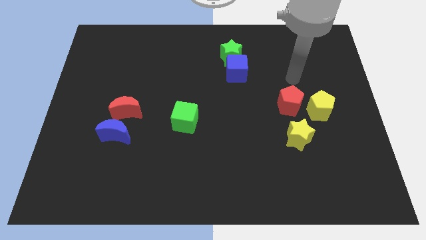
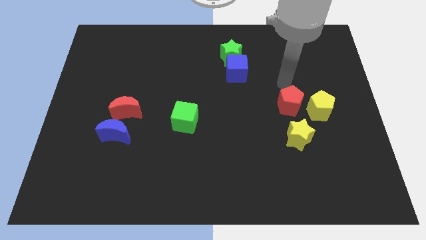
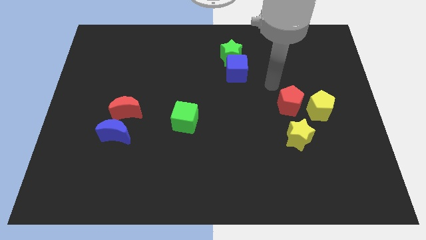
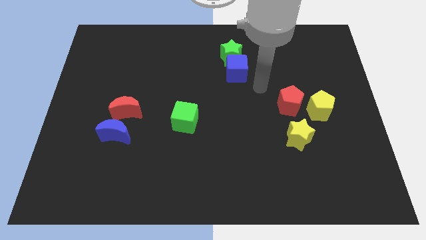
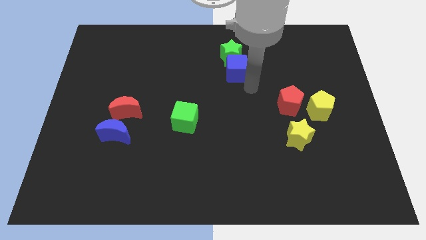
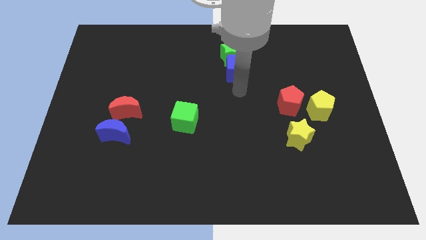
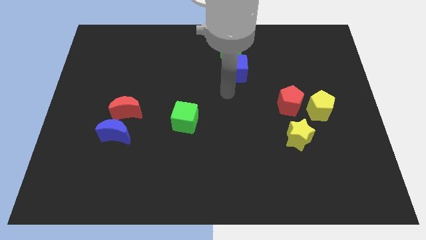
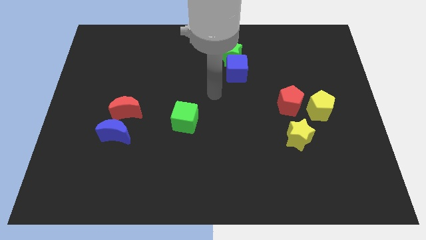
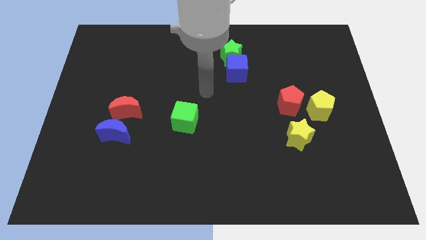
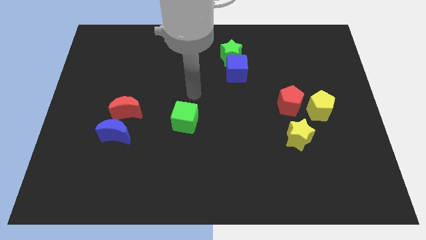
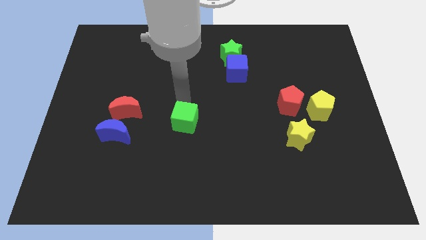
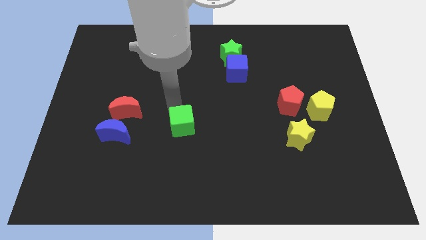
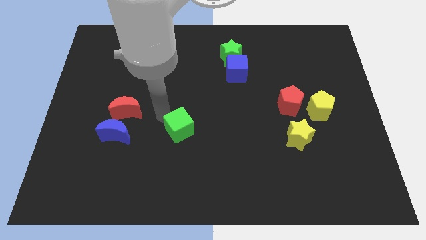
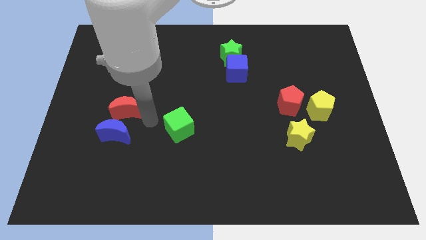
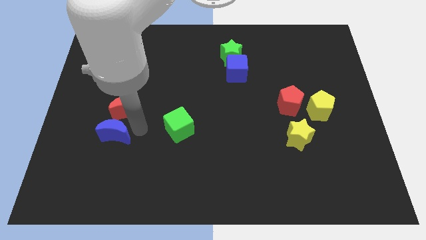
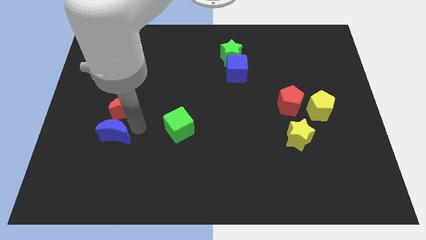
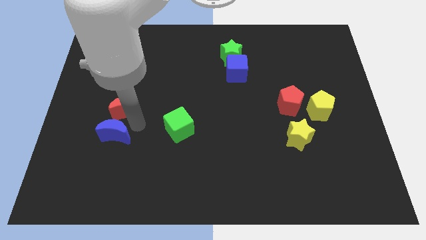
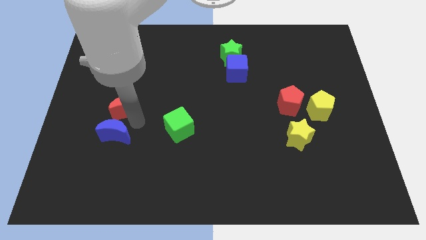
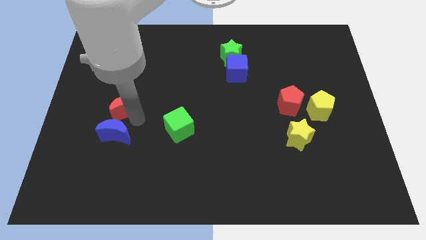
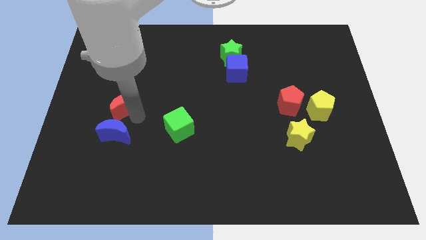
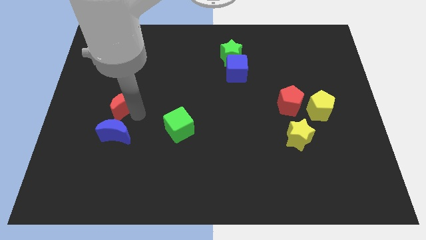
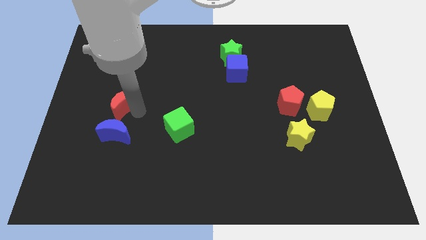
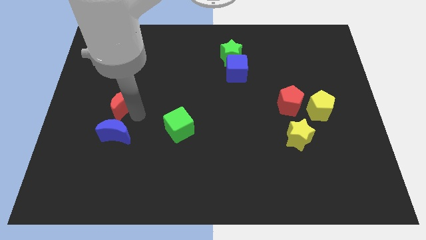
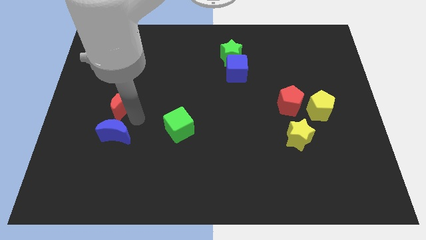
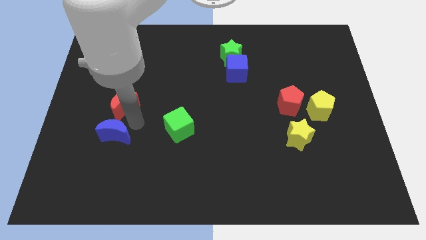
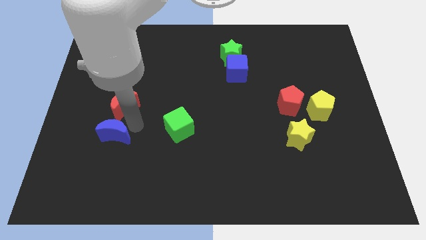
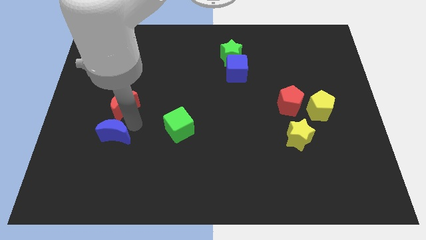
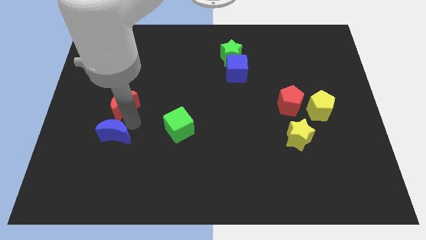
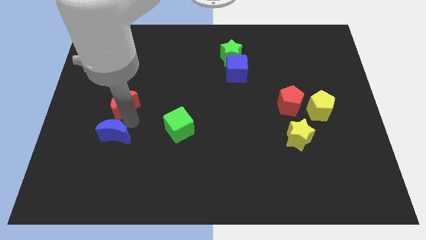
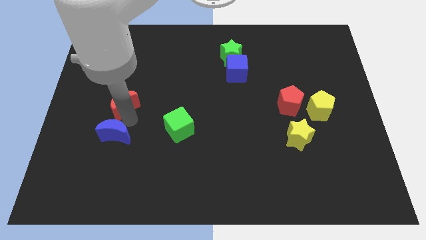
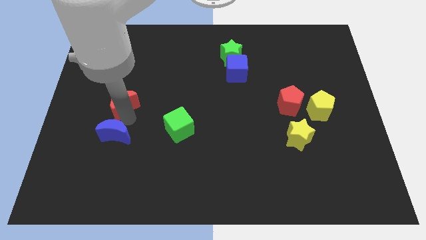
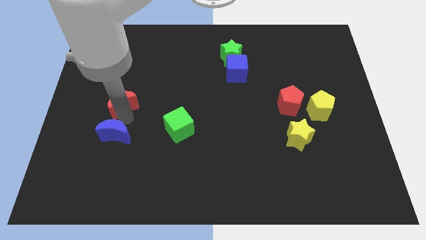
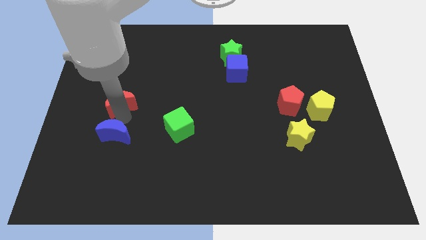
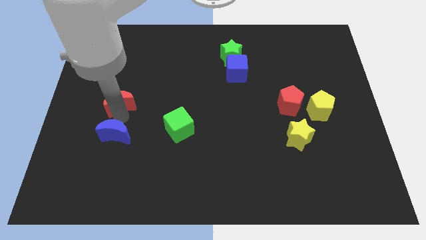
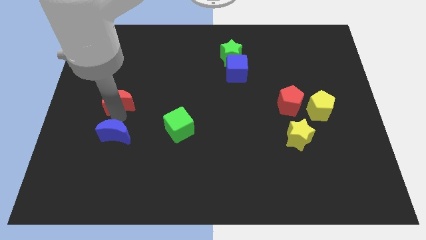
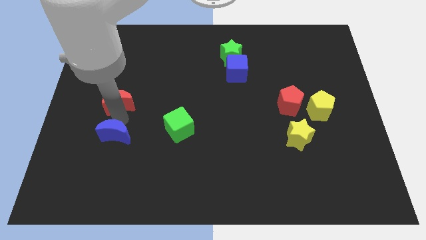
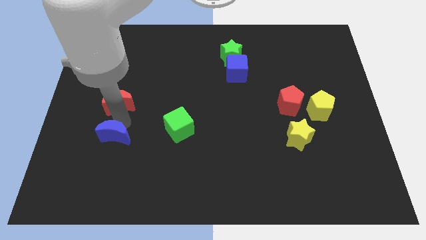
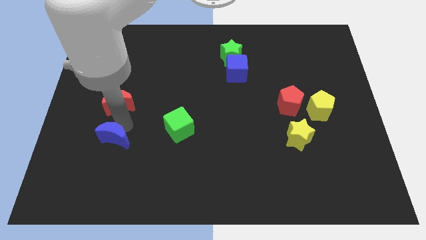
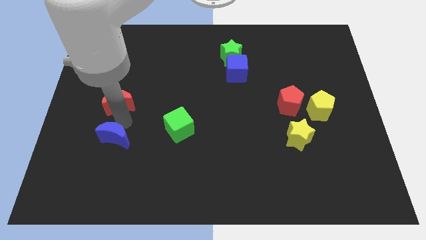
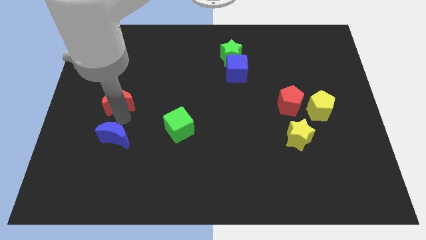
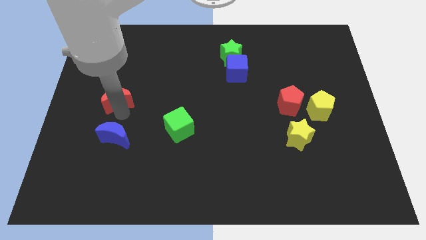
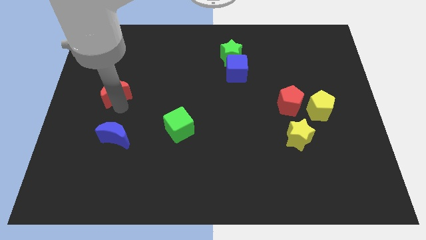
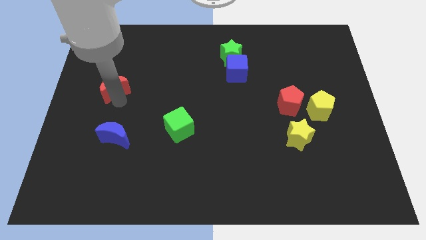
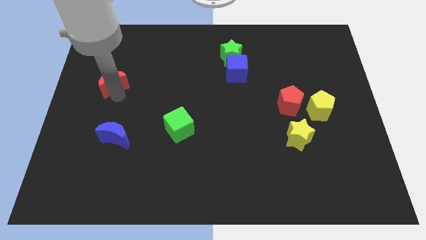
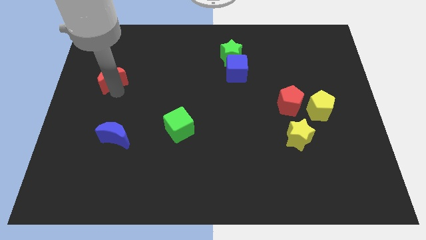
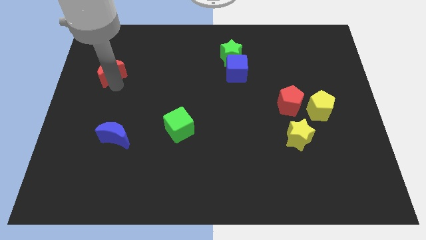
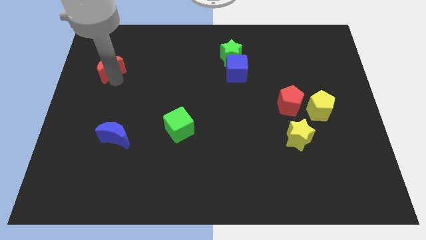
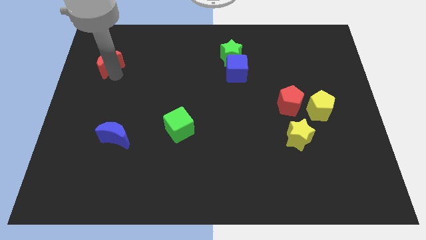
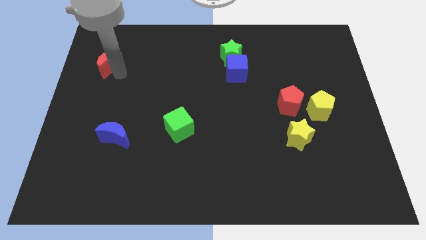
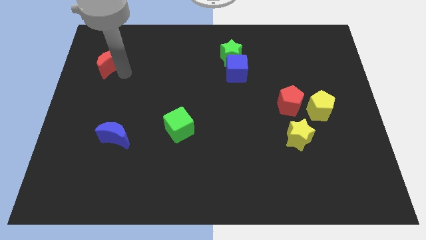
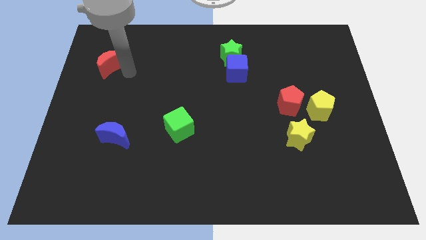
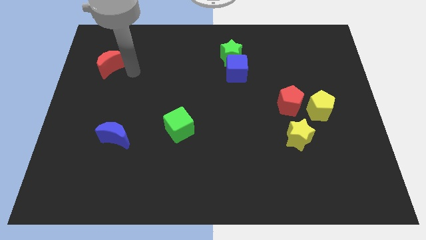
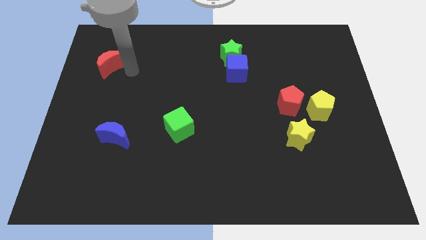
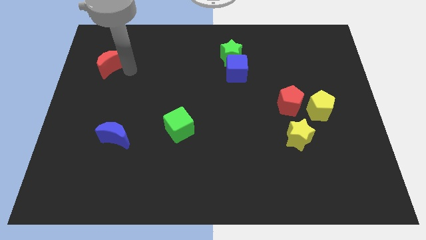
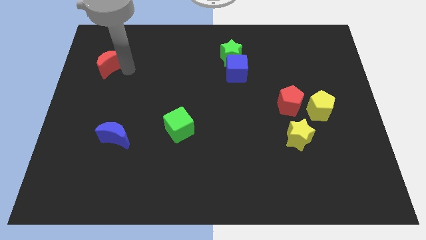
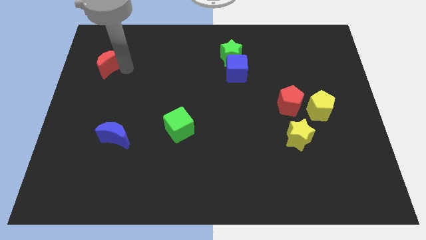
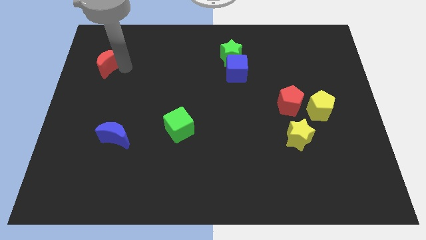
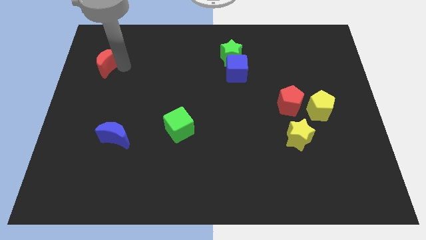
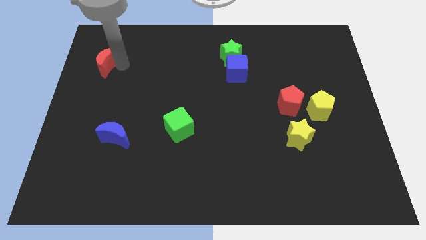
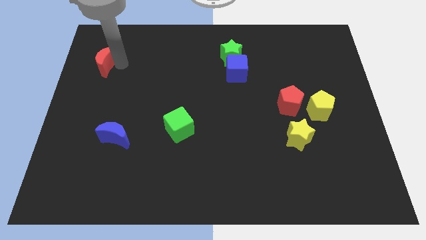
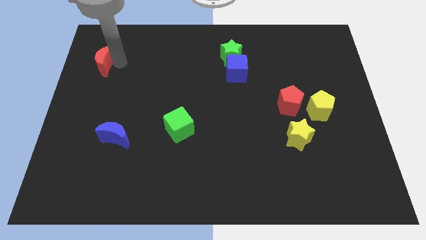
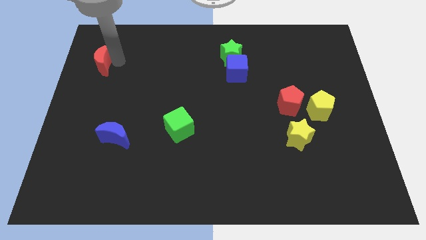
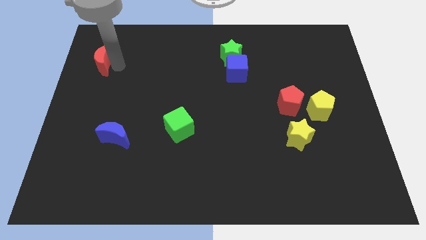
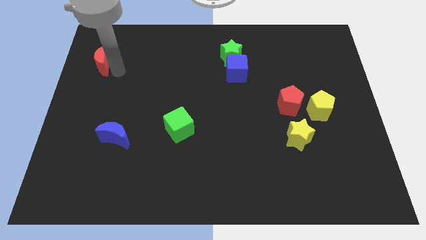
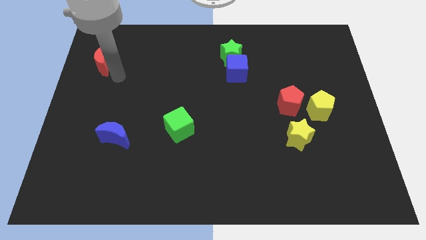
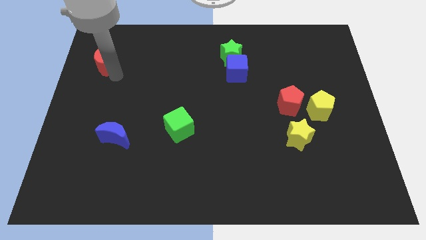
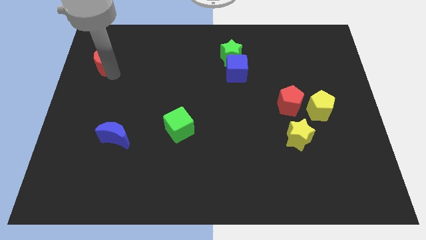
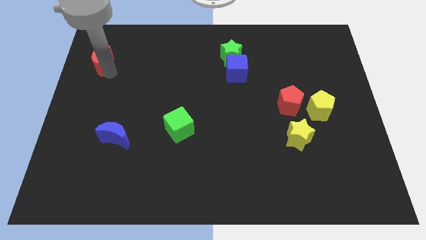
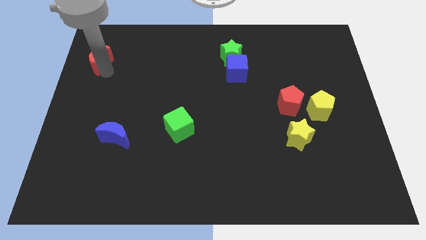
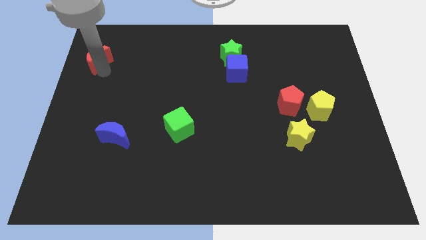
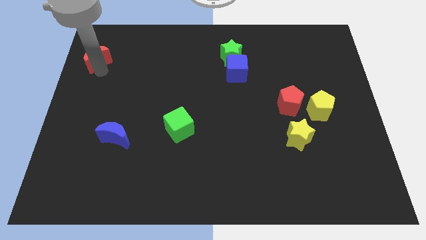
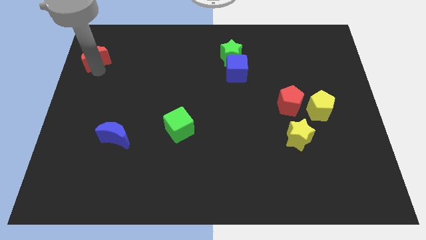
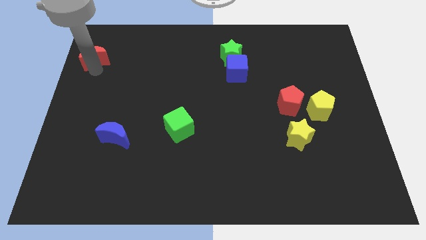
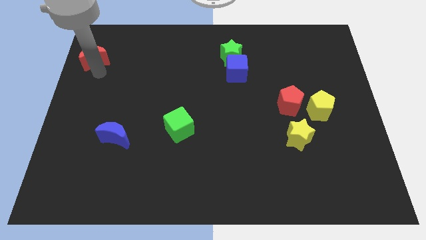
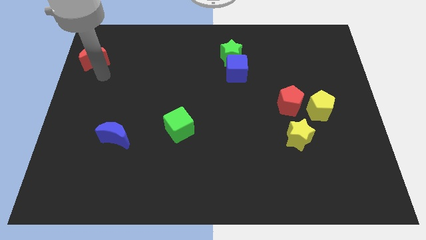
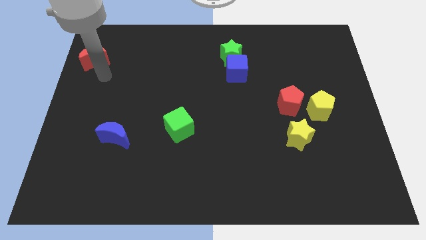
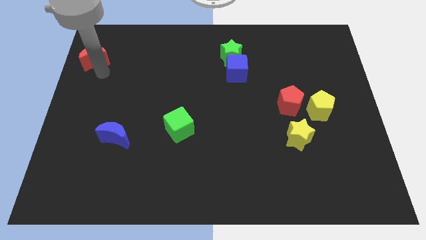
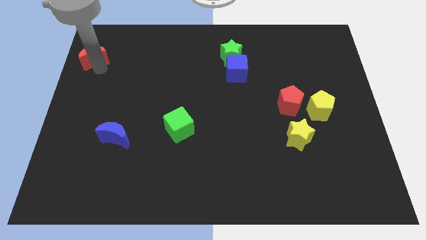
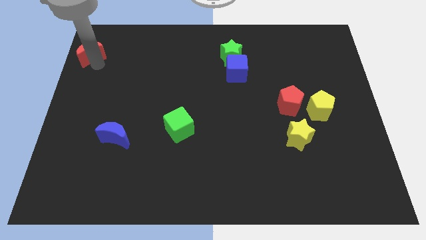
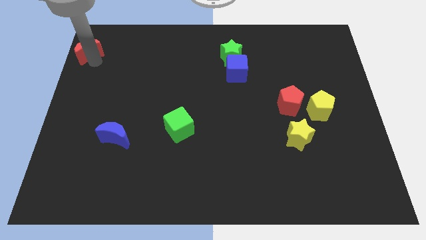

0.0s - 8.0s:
push the red moon to the top left

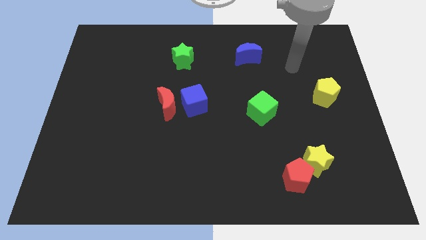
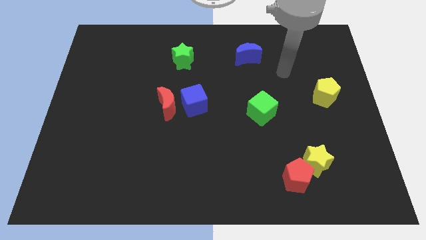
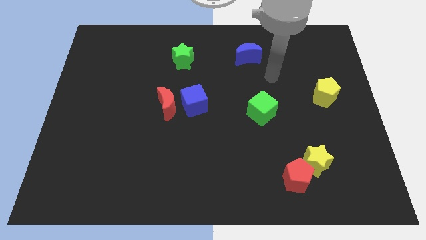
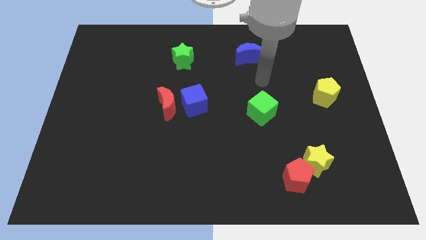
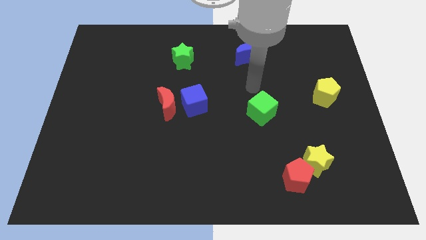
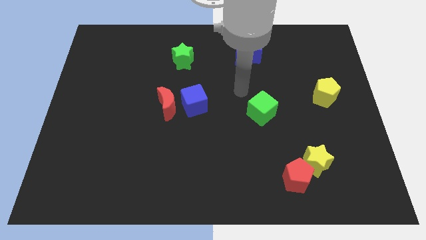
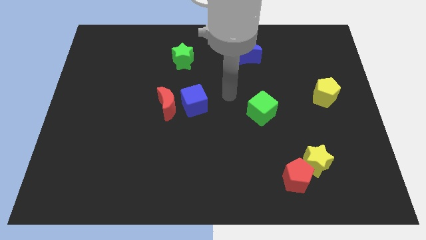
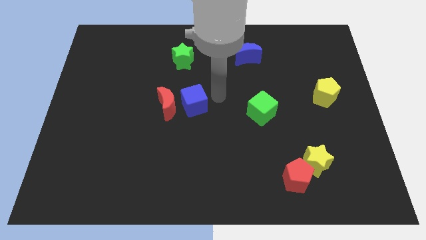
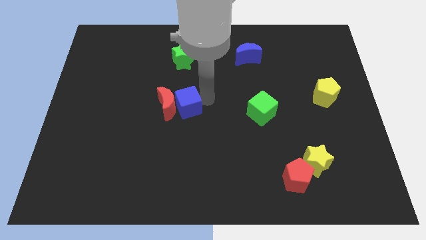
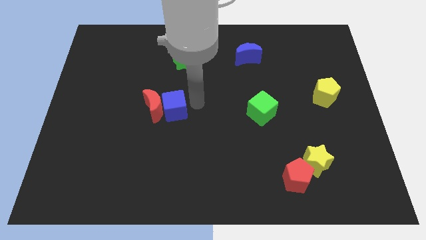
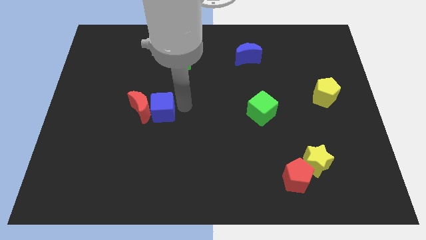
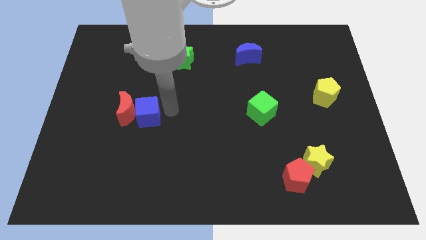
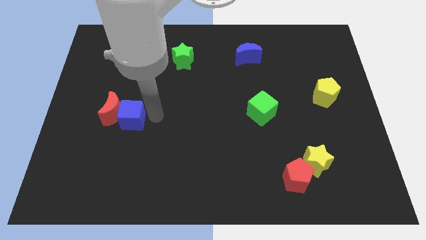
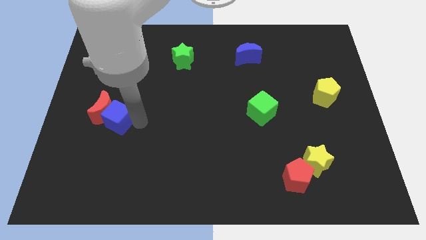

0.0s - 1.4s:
push the red moon to the left side of the board
